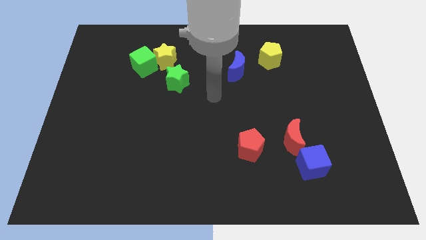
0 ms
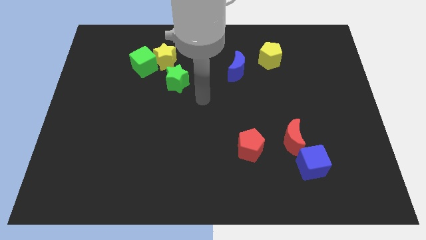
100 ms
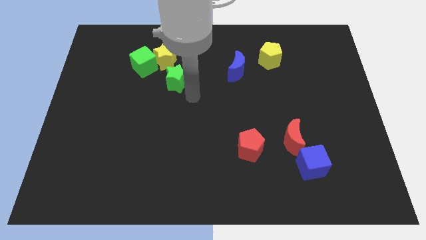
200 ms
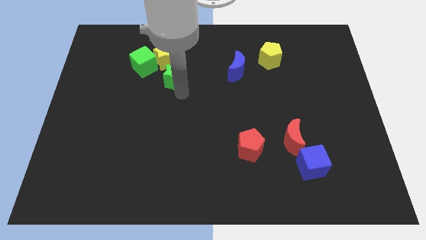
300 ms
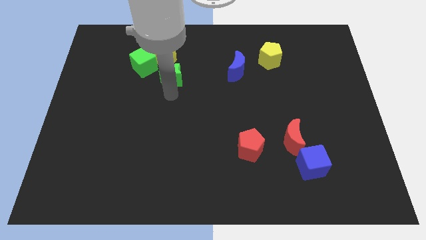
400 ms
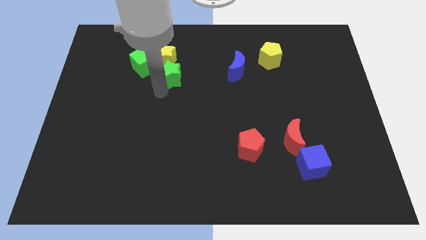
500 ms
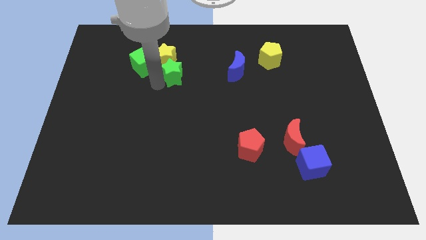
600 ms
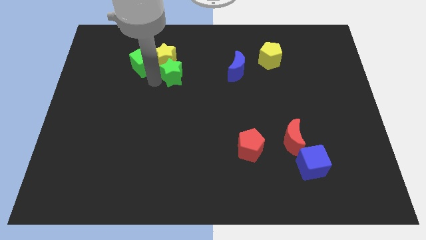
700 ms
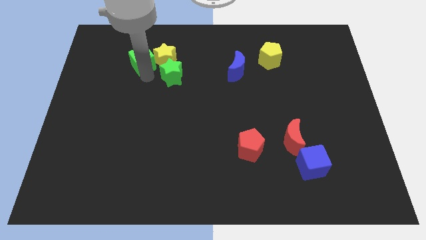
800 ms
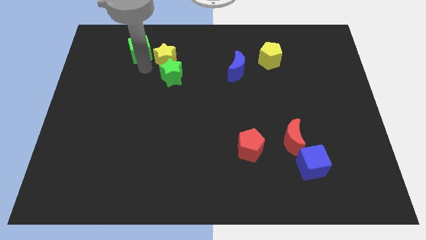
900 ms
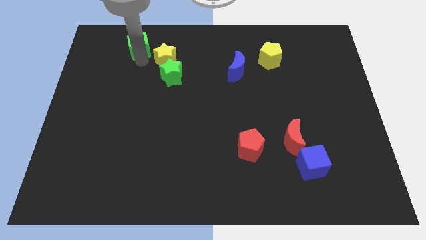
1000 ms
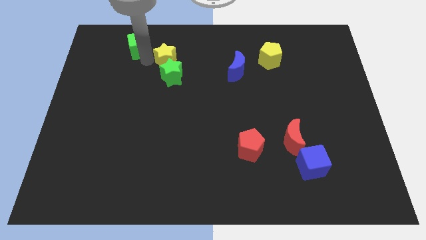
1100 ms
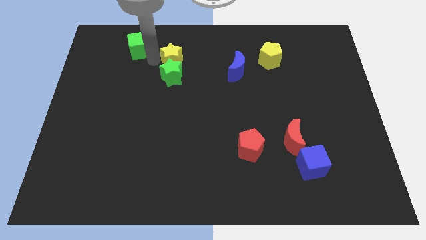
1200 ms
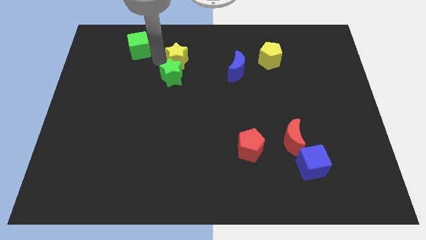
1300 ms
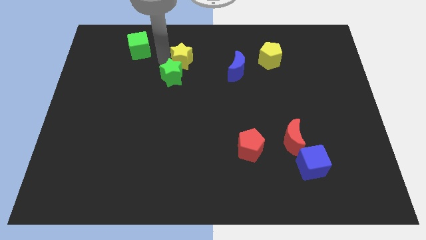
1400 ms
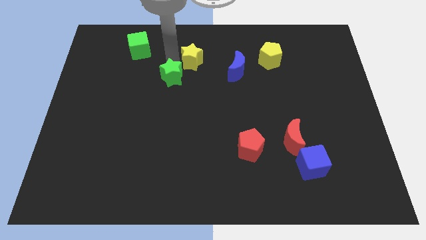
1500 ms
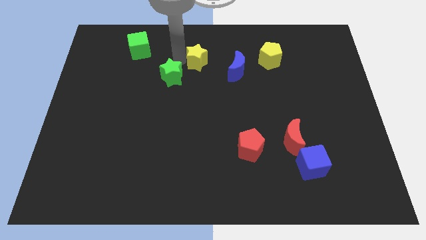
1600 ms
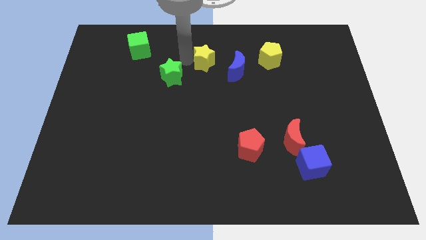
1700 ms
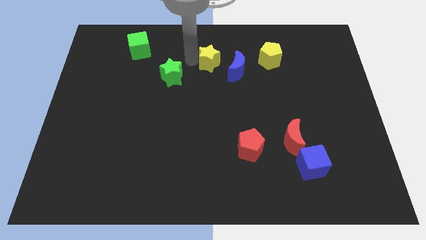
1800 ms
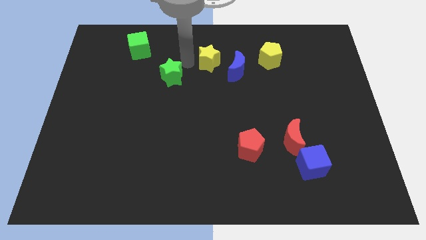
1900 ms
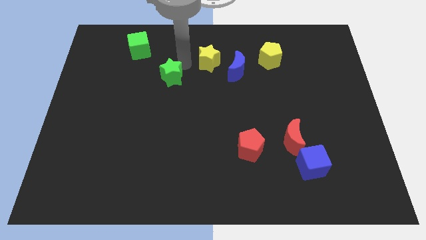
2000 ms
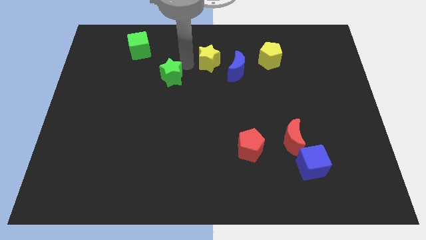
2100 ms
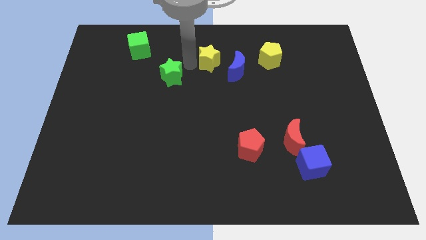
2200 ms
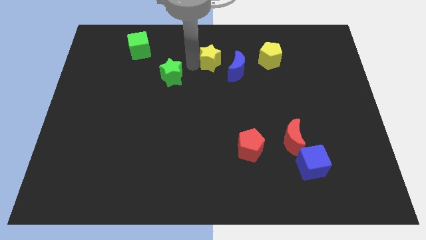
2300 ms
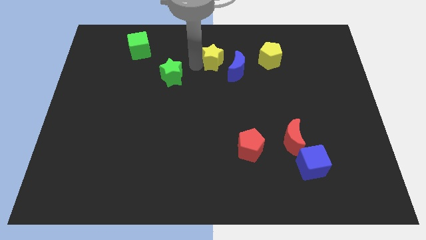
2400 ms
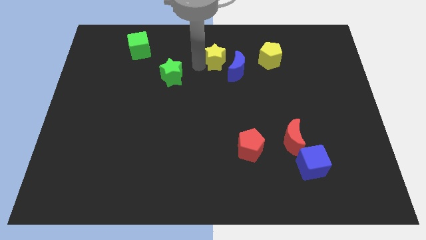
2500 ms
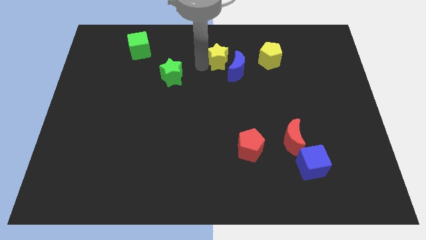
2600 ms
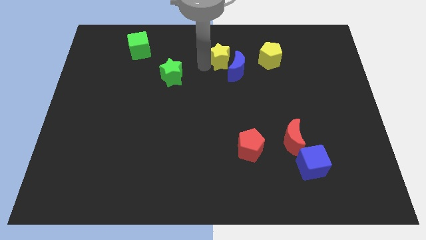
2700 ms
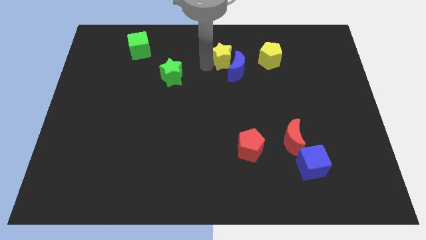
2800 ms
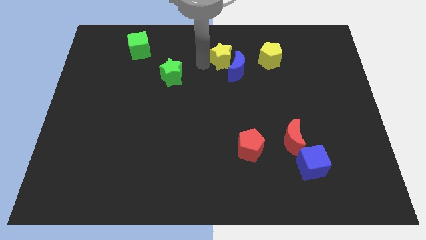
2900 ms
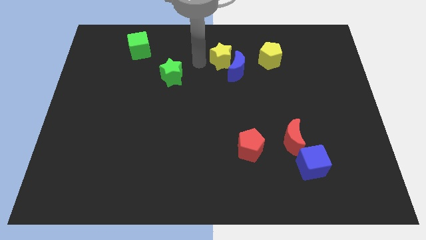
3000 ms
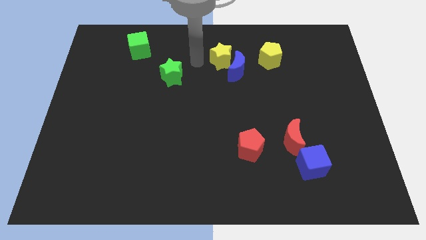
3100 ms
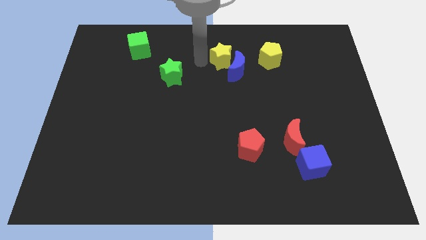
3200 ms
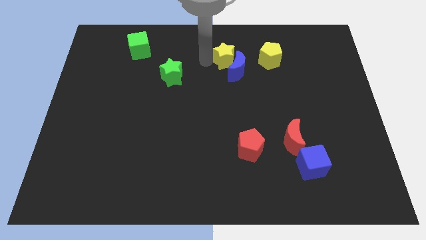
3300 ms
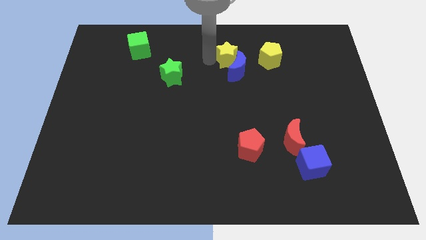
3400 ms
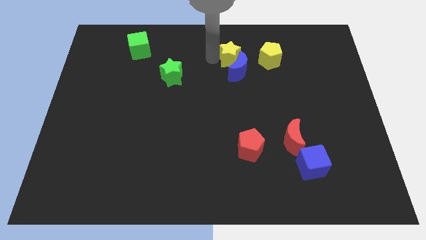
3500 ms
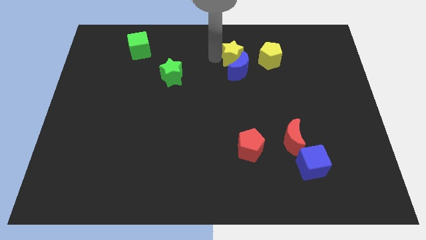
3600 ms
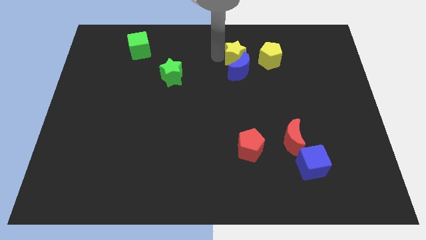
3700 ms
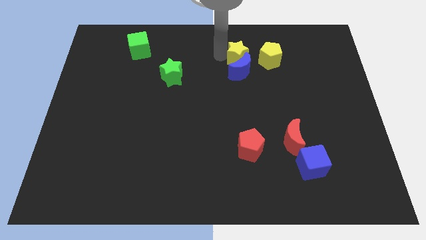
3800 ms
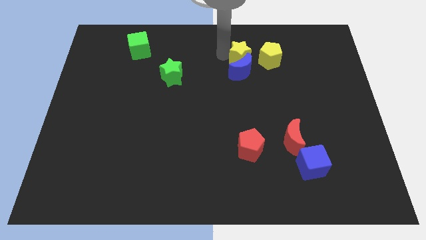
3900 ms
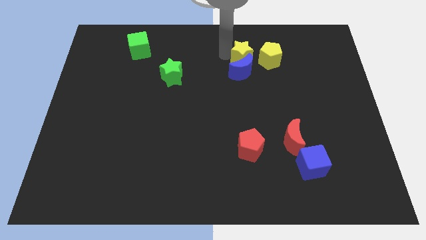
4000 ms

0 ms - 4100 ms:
push the yellow star to the right

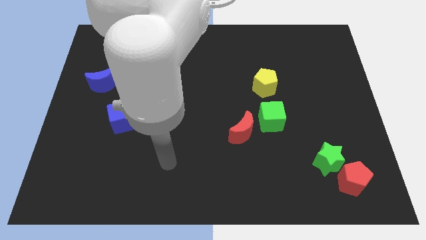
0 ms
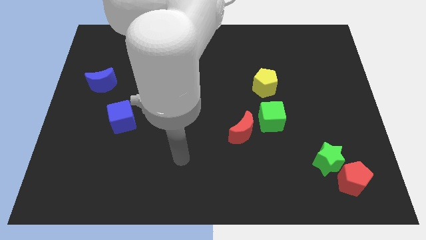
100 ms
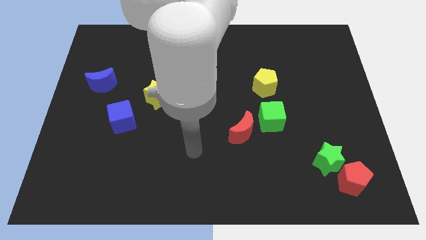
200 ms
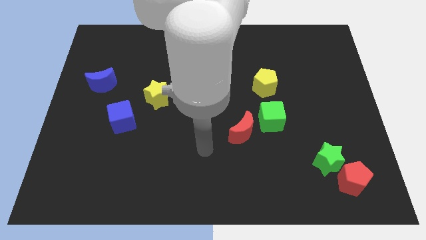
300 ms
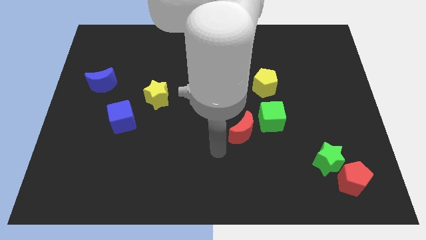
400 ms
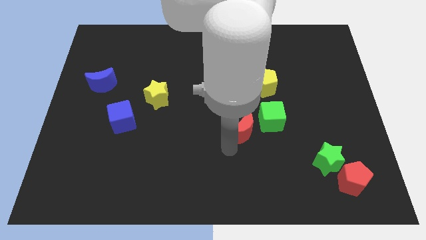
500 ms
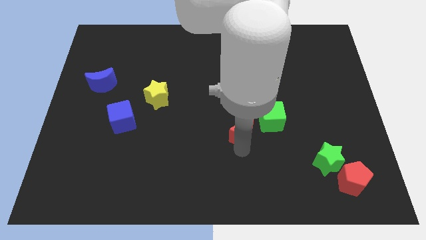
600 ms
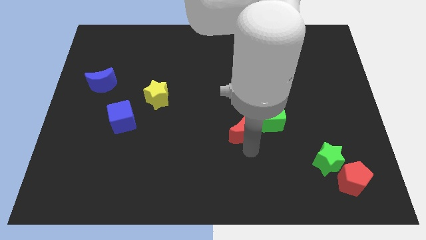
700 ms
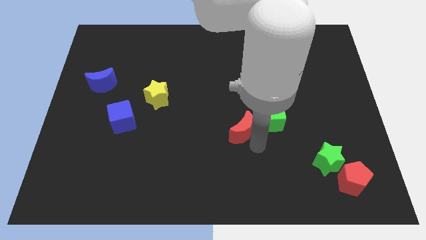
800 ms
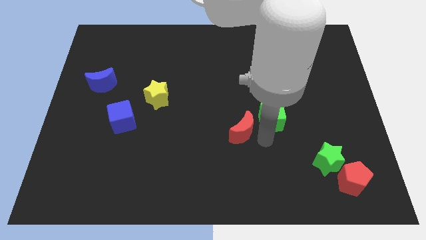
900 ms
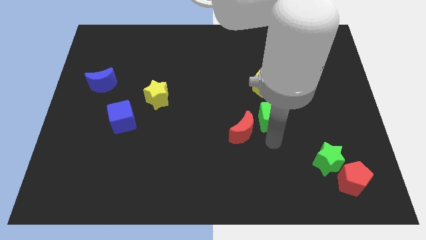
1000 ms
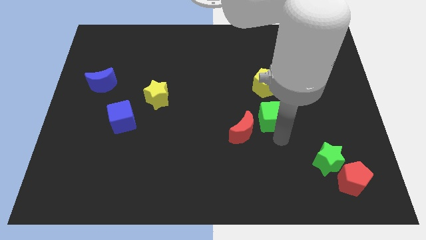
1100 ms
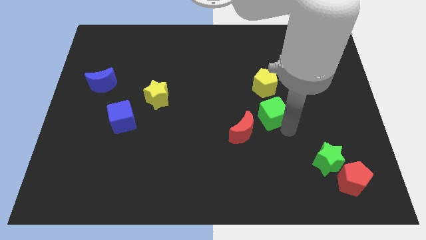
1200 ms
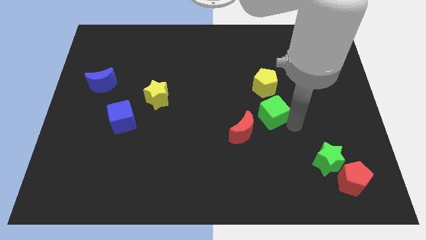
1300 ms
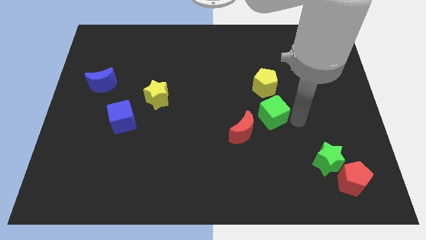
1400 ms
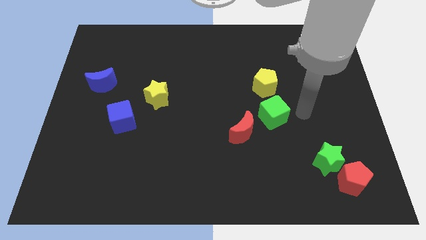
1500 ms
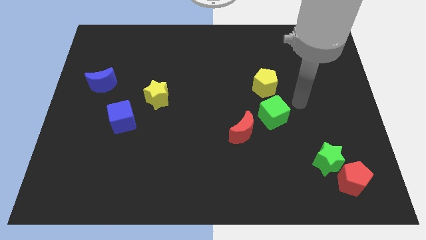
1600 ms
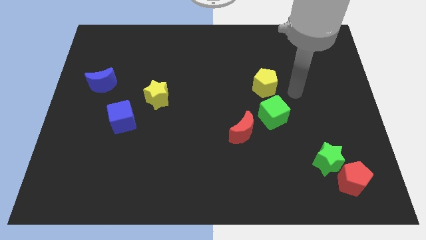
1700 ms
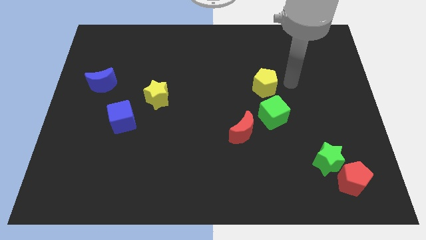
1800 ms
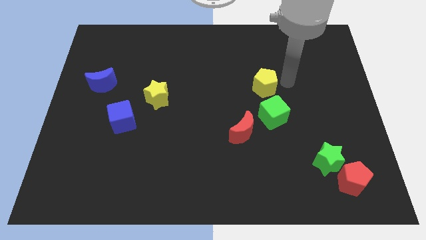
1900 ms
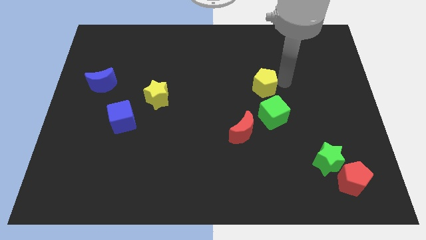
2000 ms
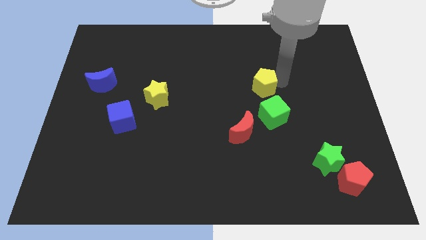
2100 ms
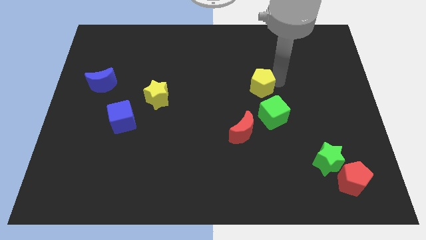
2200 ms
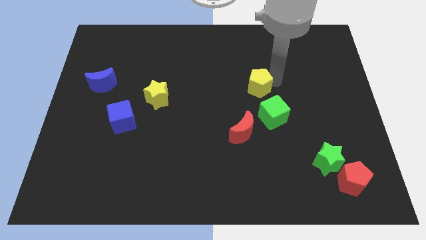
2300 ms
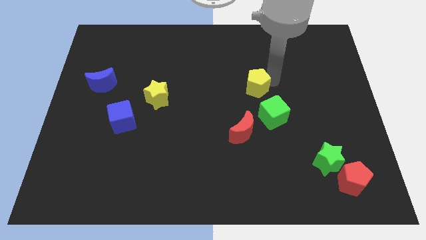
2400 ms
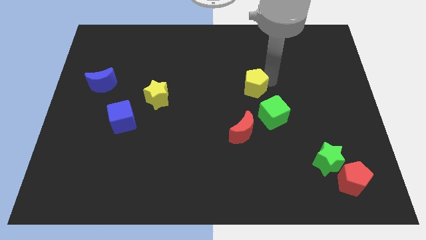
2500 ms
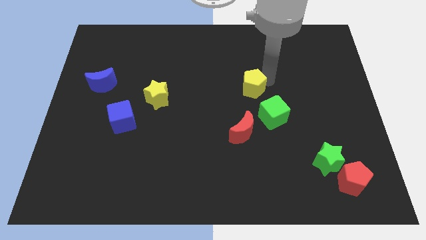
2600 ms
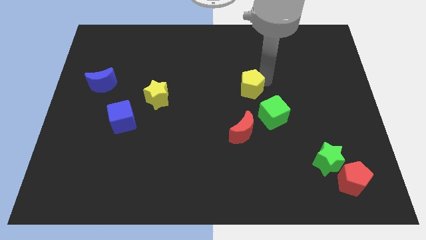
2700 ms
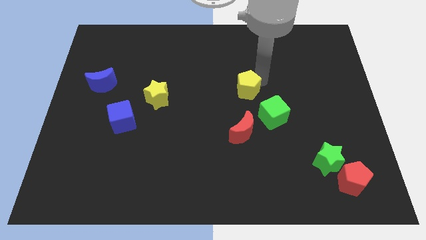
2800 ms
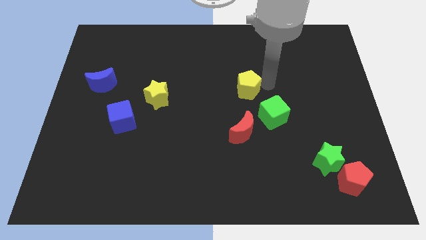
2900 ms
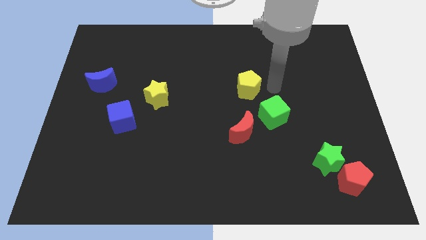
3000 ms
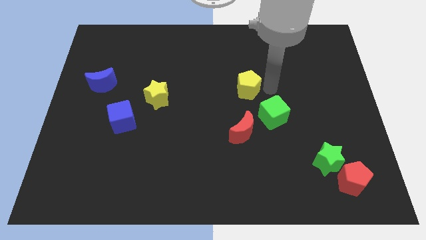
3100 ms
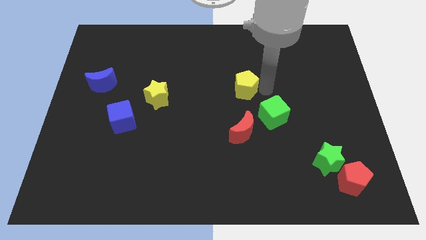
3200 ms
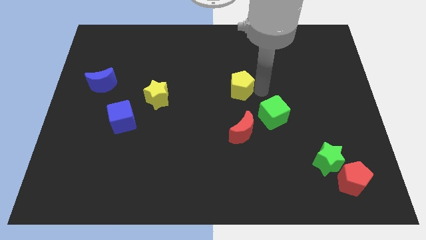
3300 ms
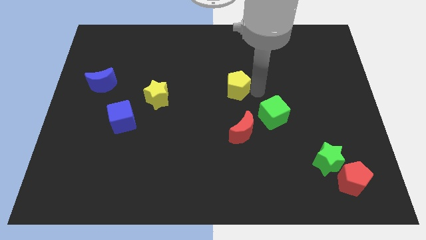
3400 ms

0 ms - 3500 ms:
slightly slide the yellow pentagon to the left

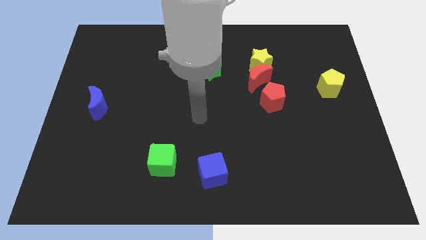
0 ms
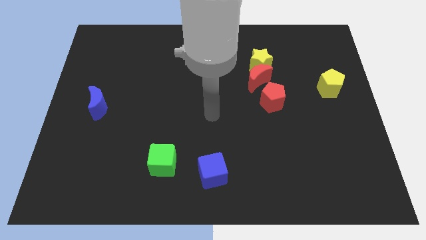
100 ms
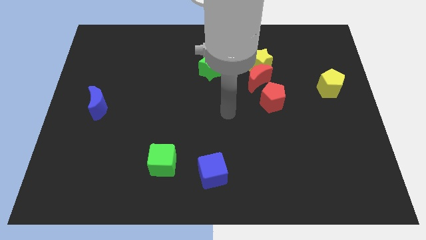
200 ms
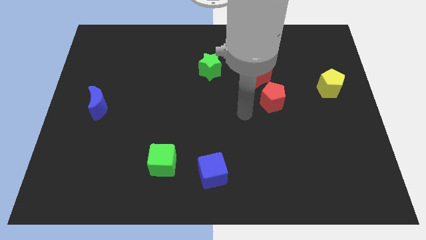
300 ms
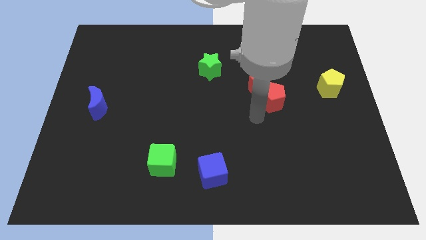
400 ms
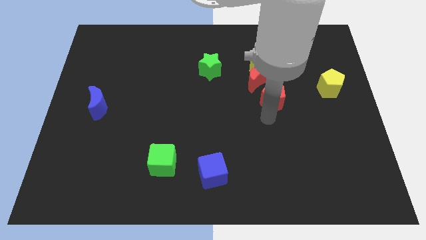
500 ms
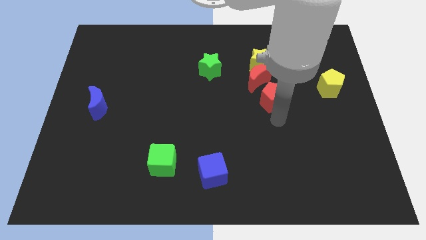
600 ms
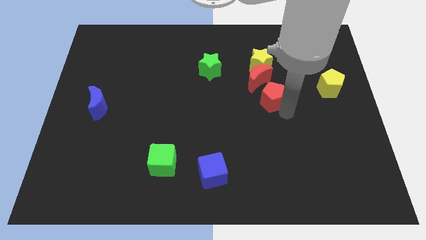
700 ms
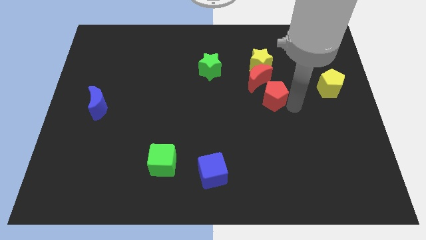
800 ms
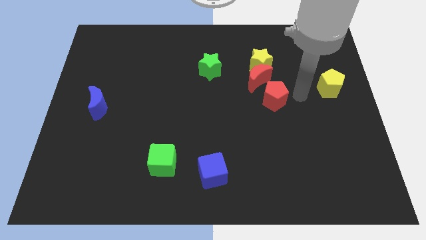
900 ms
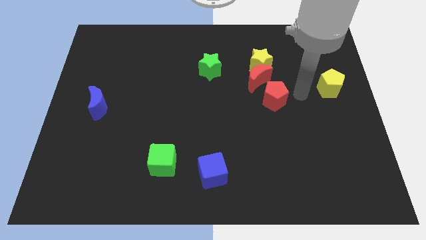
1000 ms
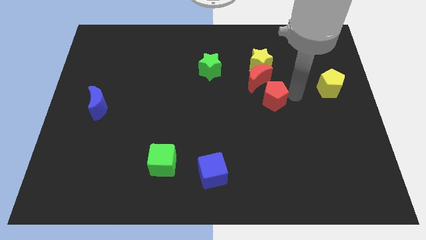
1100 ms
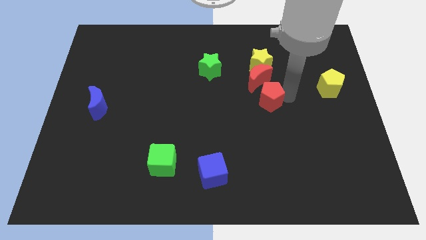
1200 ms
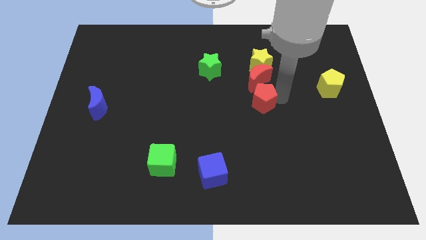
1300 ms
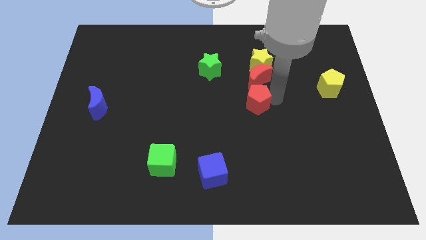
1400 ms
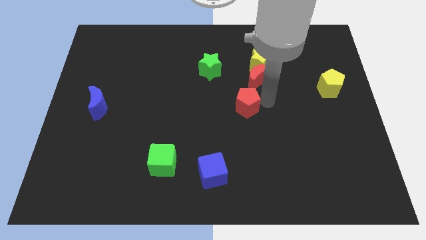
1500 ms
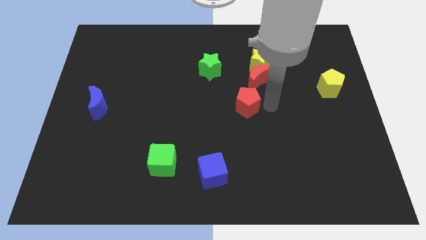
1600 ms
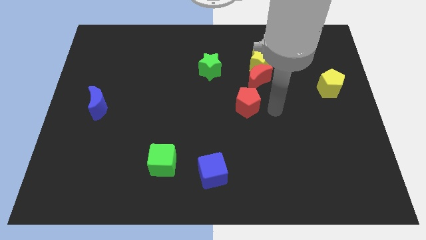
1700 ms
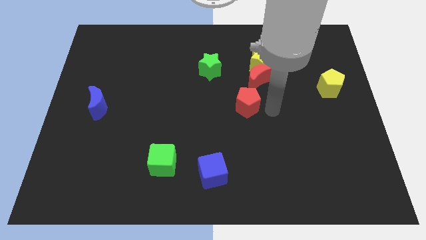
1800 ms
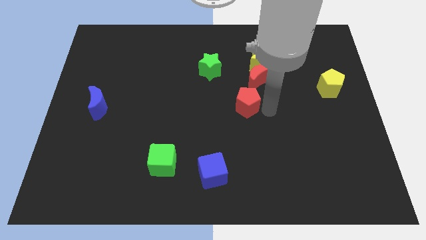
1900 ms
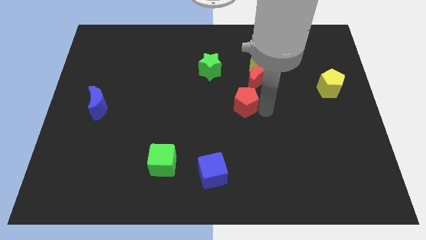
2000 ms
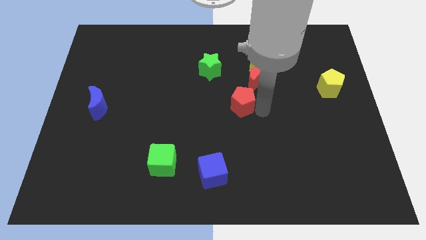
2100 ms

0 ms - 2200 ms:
slightly slide the red pentagon to the left
